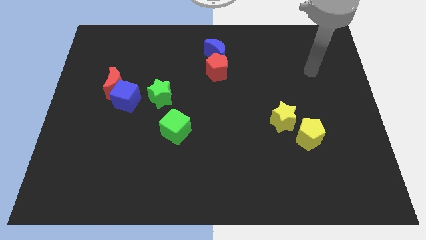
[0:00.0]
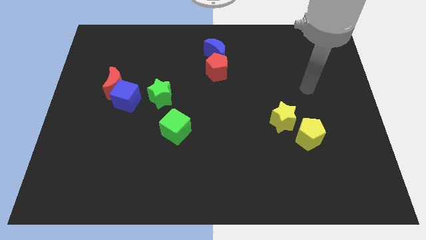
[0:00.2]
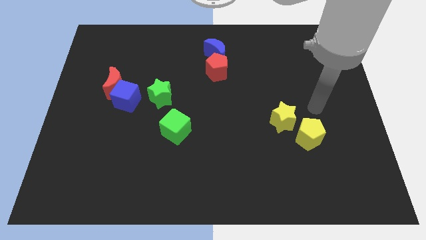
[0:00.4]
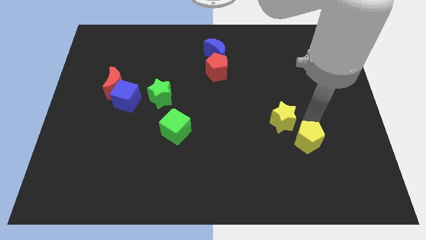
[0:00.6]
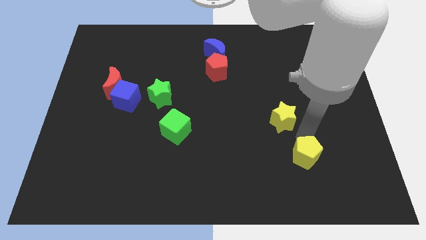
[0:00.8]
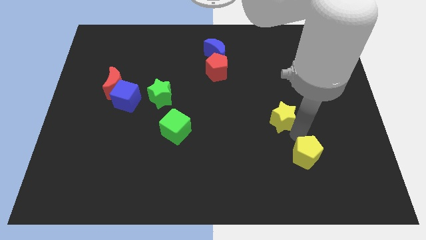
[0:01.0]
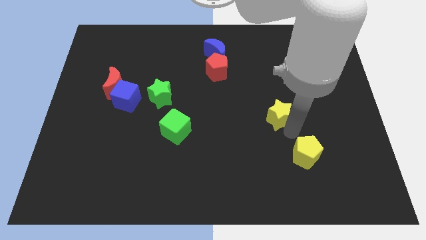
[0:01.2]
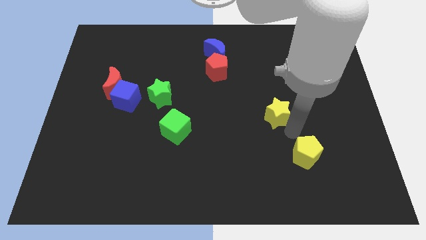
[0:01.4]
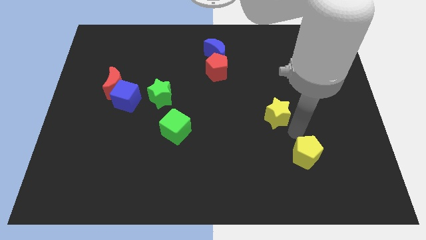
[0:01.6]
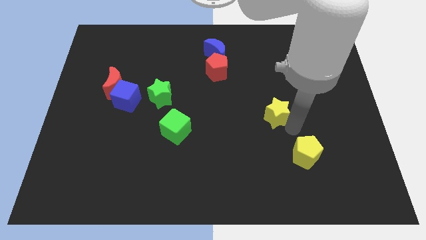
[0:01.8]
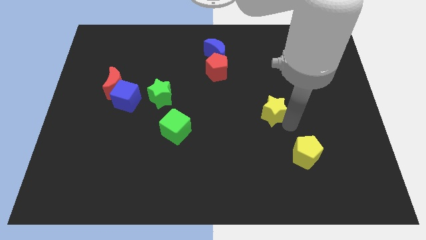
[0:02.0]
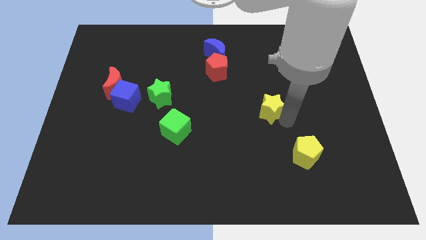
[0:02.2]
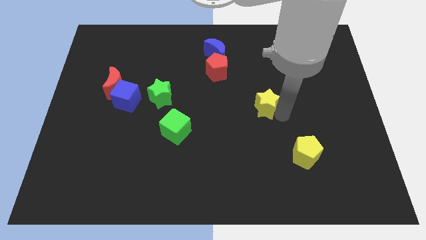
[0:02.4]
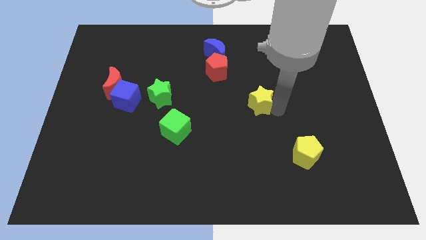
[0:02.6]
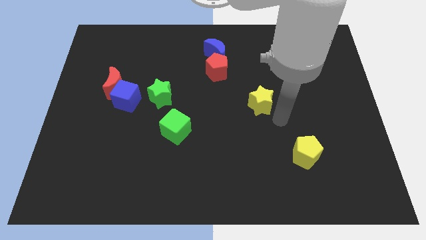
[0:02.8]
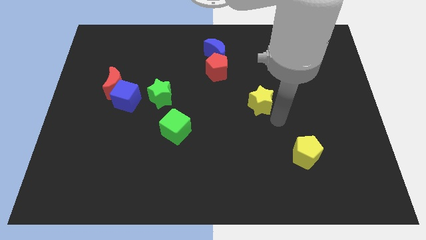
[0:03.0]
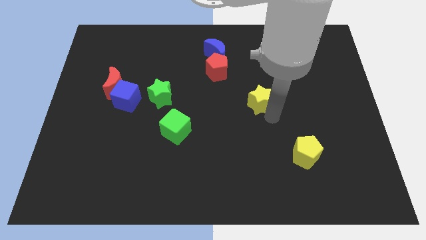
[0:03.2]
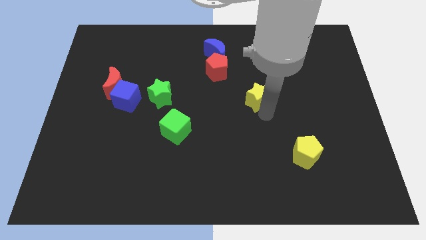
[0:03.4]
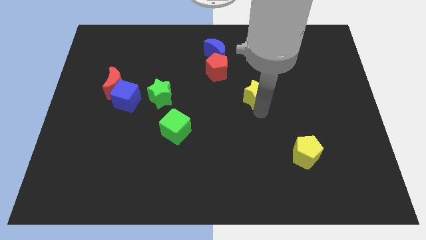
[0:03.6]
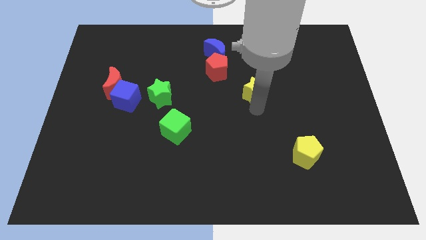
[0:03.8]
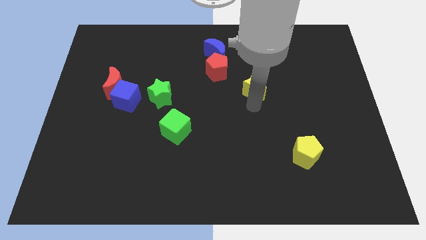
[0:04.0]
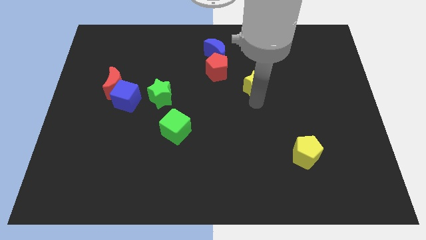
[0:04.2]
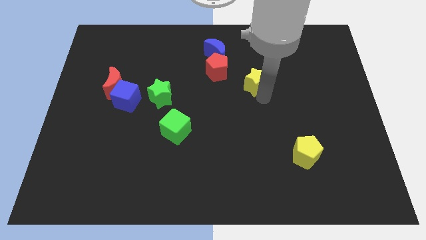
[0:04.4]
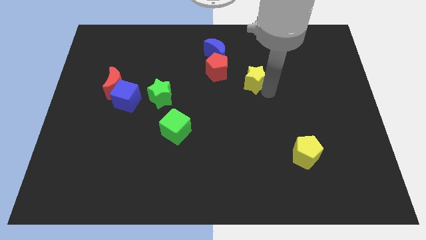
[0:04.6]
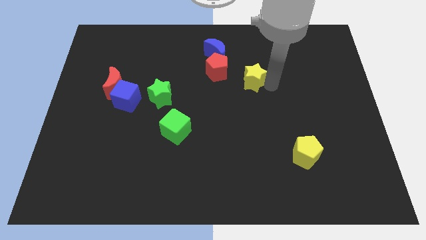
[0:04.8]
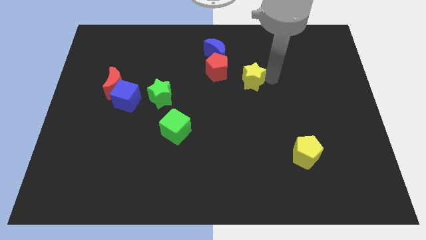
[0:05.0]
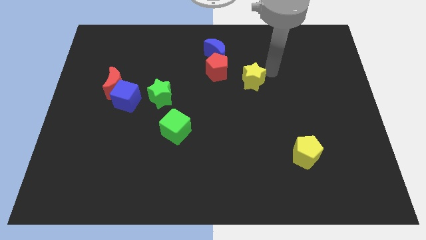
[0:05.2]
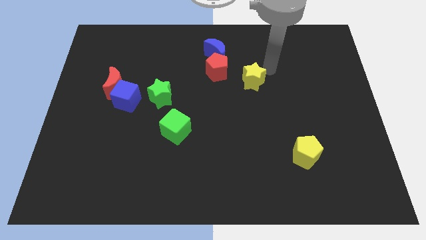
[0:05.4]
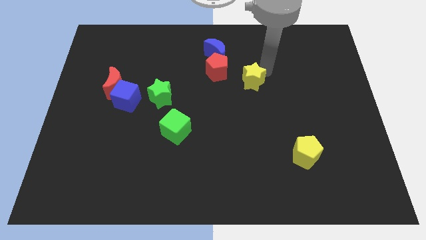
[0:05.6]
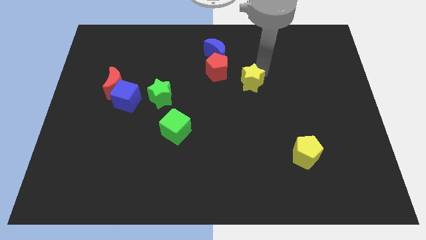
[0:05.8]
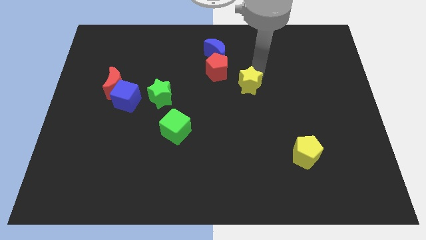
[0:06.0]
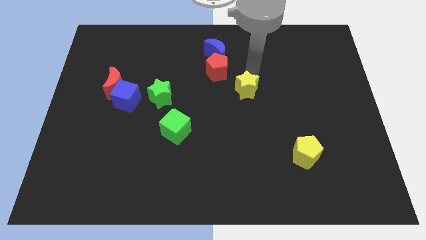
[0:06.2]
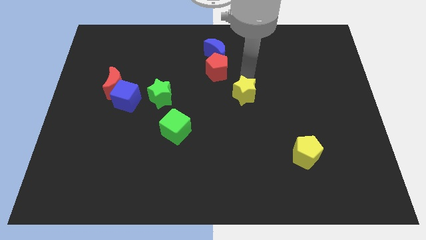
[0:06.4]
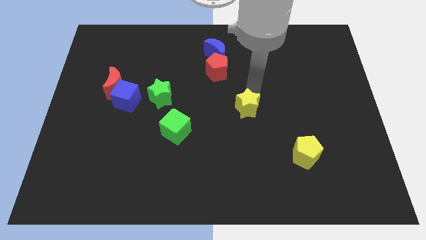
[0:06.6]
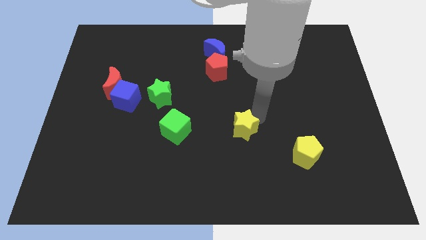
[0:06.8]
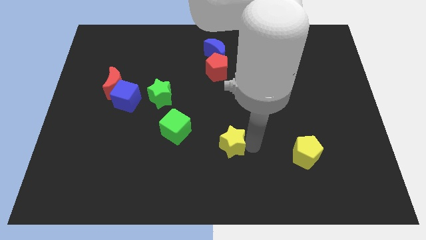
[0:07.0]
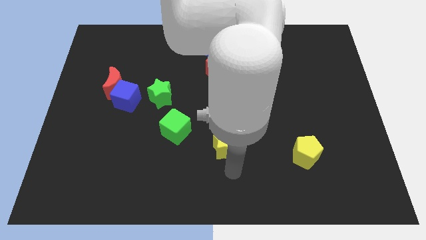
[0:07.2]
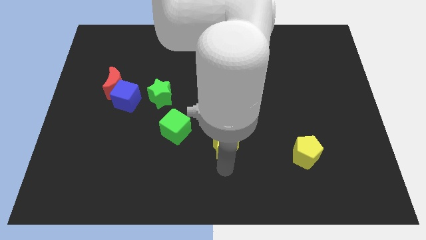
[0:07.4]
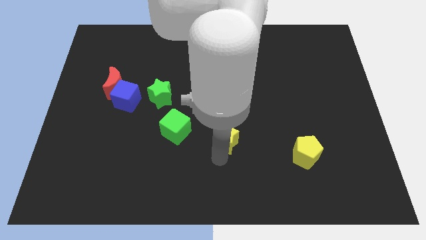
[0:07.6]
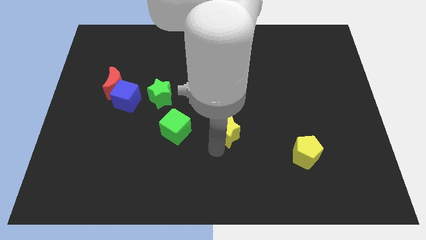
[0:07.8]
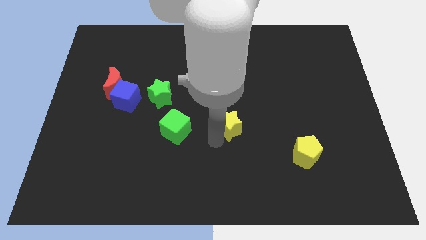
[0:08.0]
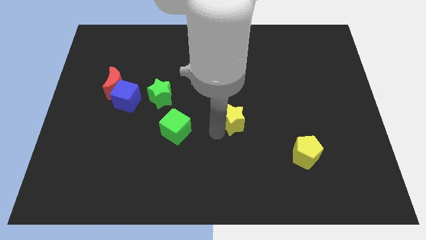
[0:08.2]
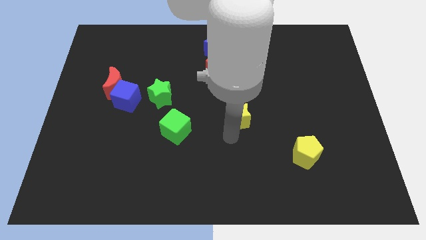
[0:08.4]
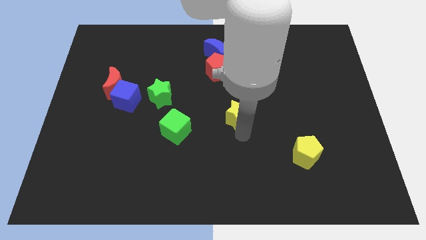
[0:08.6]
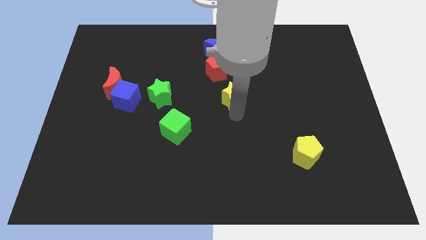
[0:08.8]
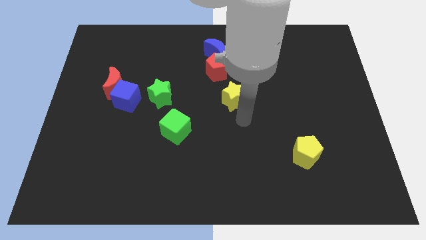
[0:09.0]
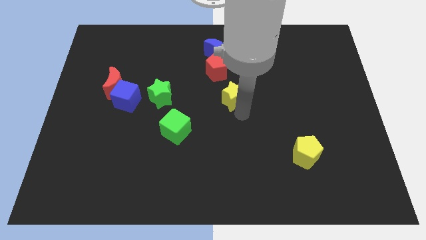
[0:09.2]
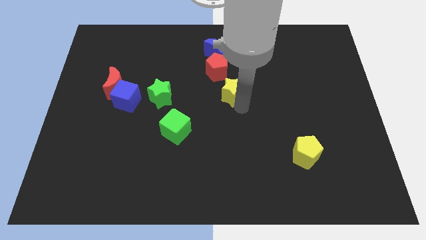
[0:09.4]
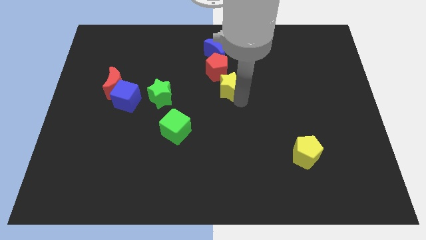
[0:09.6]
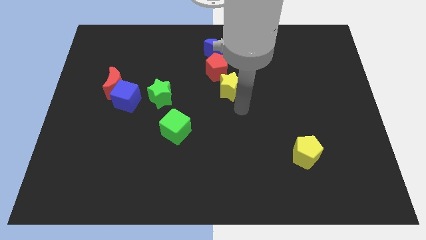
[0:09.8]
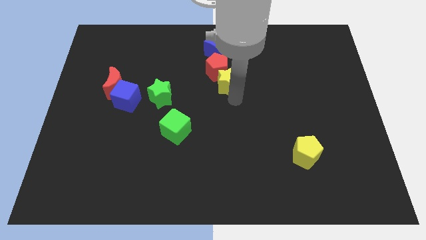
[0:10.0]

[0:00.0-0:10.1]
slide the yellow star to the red pentagon
